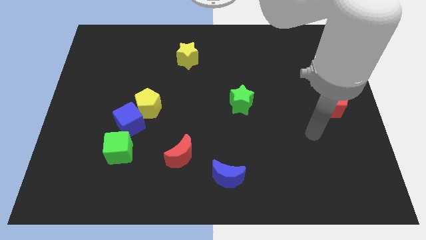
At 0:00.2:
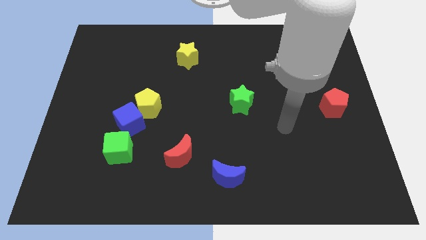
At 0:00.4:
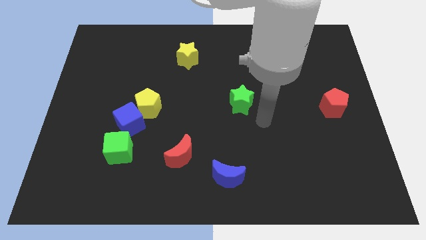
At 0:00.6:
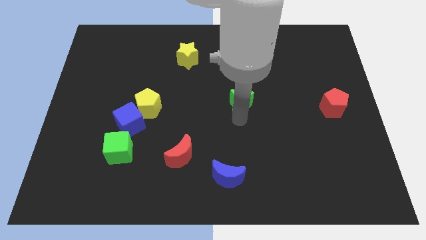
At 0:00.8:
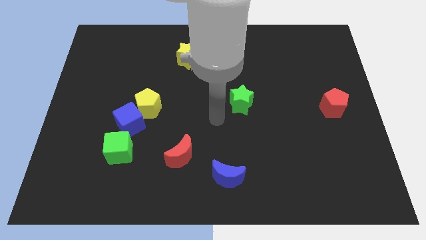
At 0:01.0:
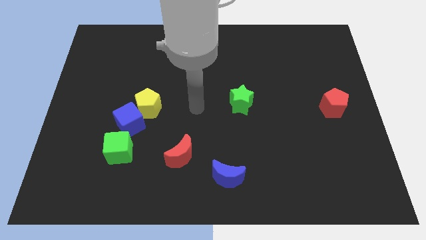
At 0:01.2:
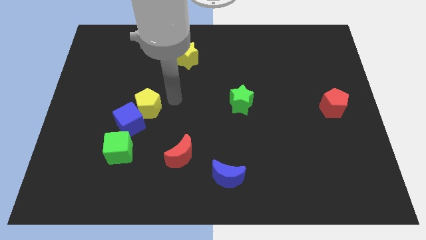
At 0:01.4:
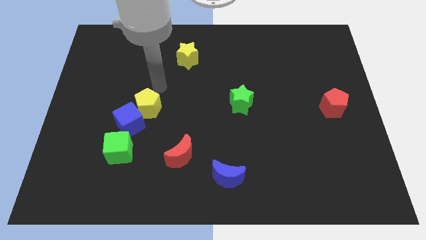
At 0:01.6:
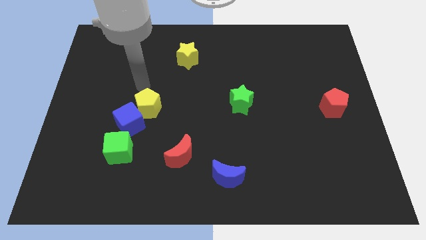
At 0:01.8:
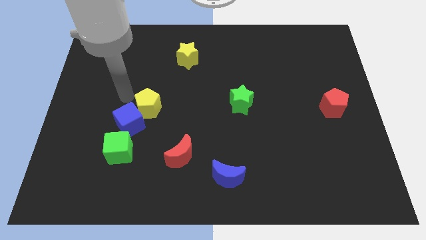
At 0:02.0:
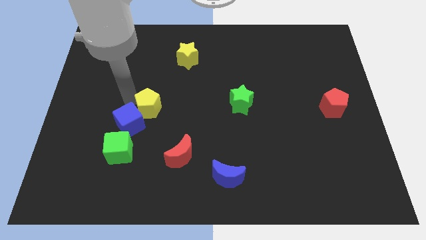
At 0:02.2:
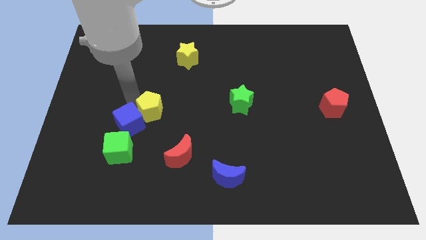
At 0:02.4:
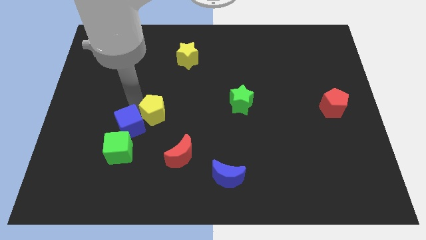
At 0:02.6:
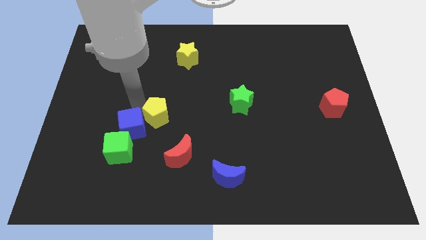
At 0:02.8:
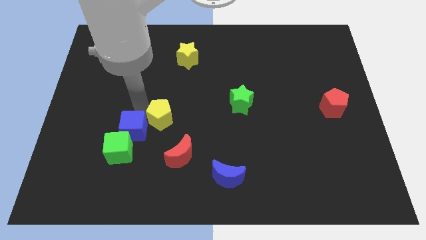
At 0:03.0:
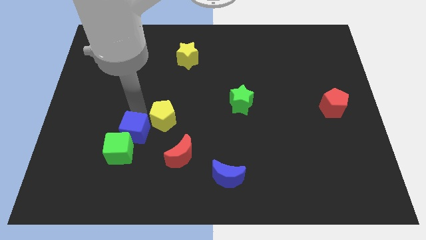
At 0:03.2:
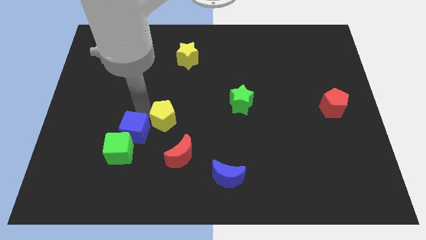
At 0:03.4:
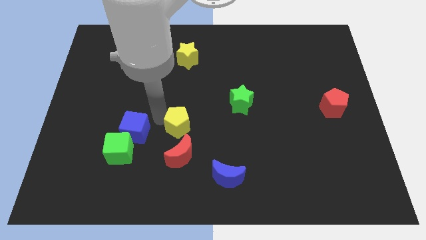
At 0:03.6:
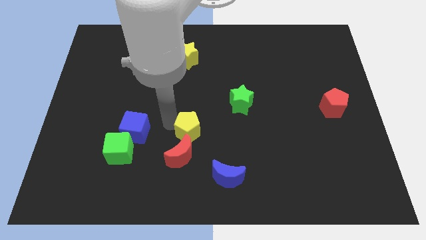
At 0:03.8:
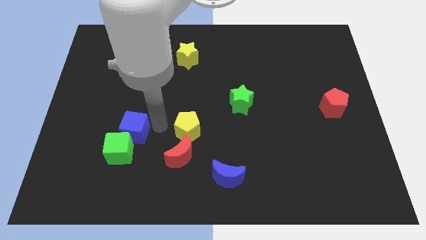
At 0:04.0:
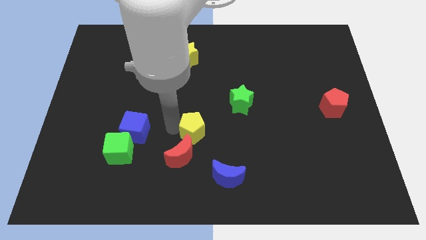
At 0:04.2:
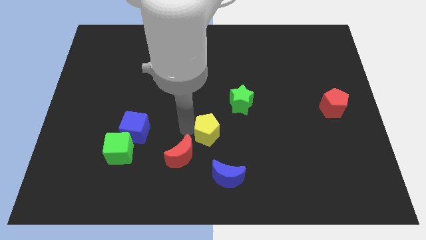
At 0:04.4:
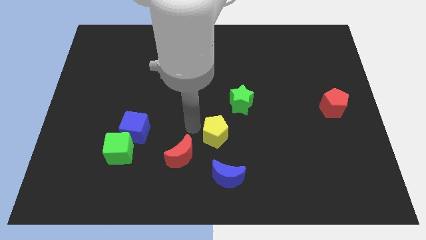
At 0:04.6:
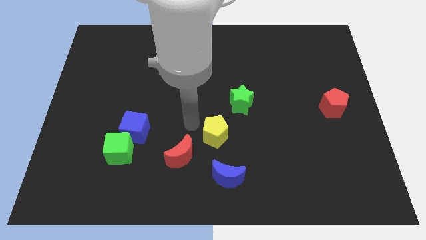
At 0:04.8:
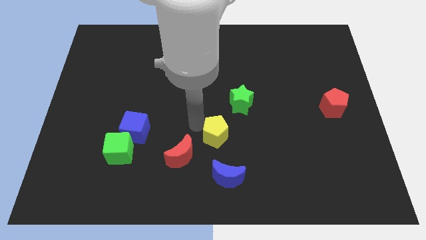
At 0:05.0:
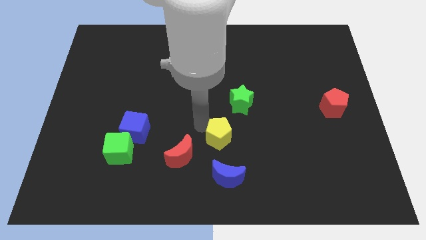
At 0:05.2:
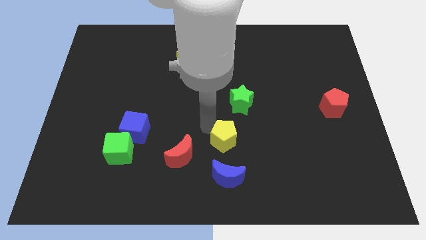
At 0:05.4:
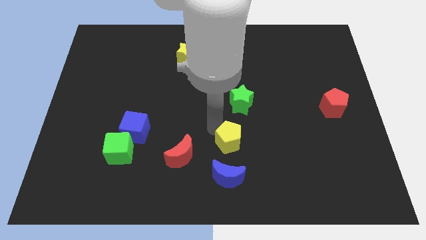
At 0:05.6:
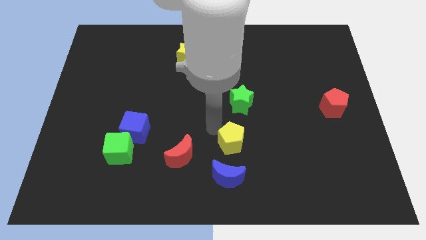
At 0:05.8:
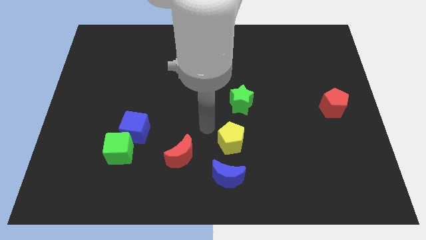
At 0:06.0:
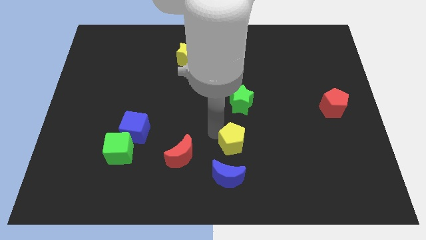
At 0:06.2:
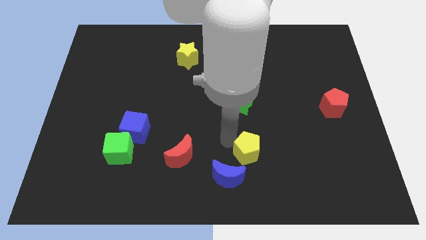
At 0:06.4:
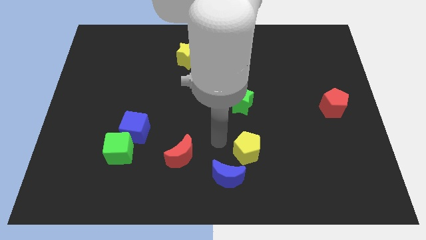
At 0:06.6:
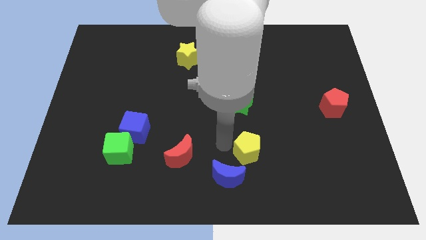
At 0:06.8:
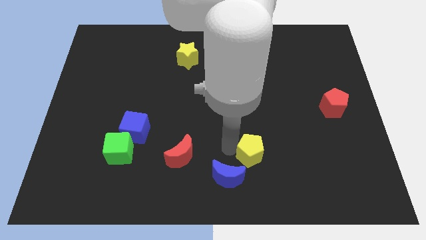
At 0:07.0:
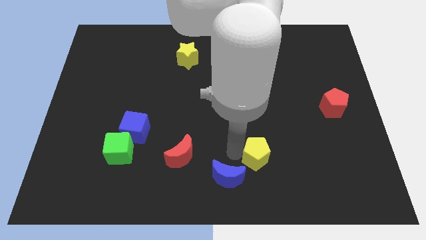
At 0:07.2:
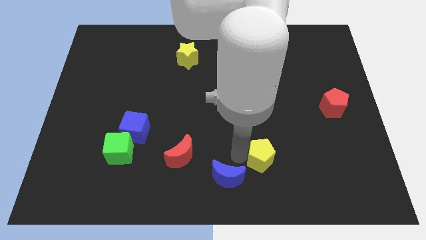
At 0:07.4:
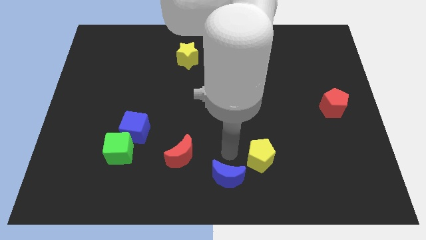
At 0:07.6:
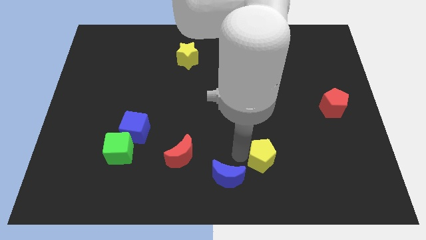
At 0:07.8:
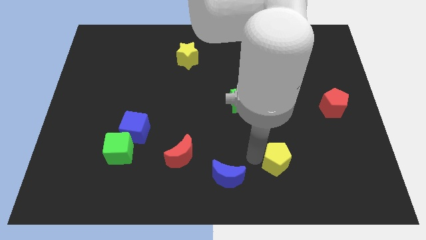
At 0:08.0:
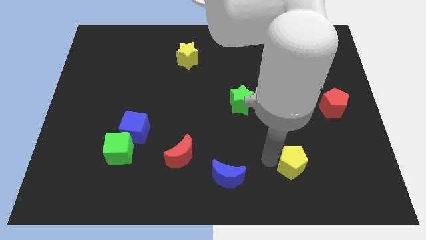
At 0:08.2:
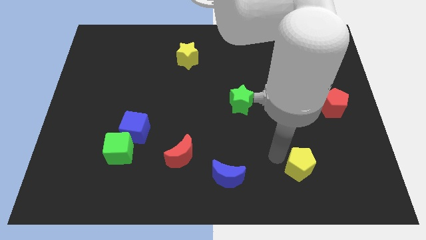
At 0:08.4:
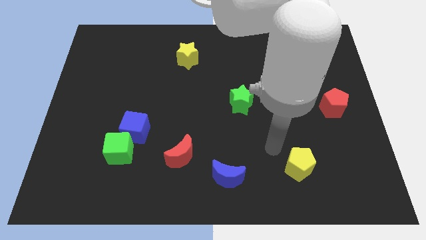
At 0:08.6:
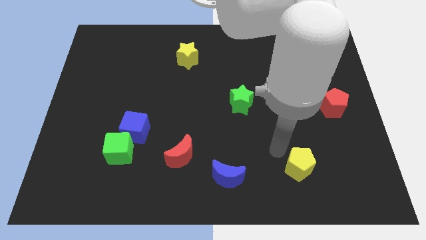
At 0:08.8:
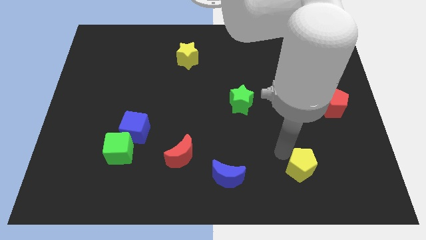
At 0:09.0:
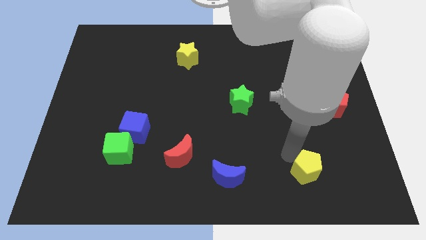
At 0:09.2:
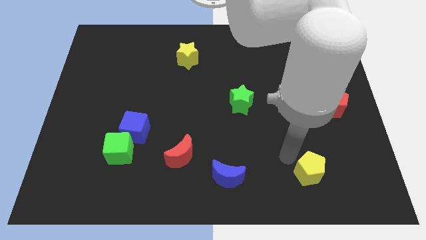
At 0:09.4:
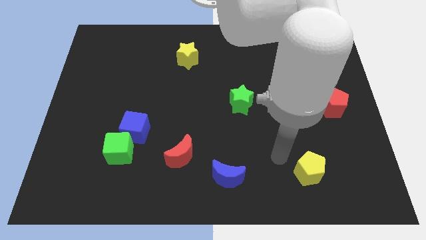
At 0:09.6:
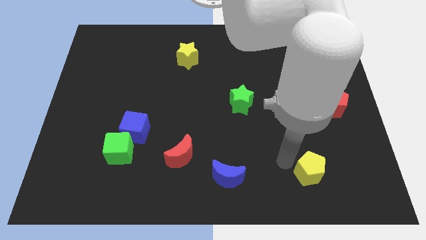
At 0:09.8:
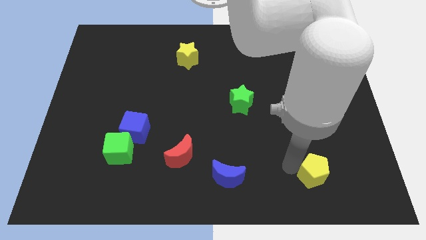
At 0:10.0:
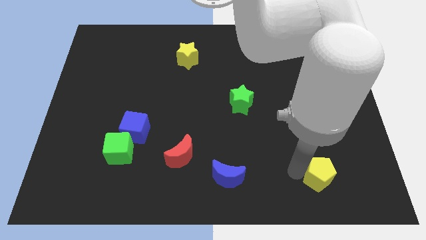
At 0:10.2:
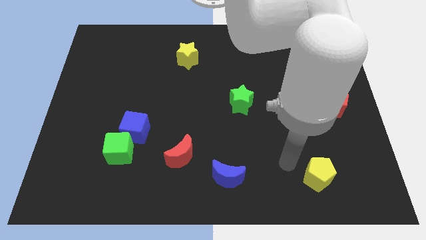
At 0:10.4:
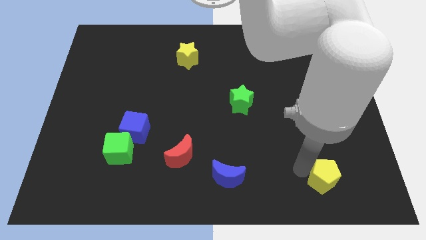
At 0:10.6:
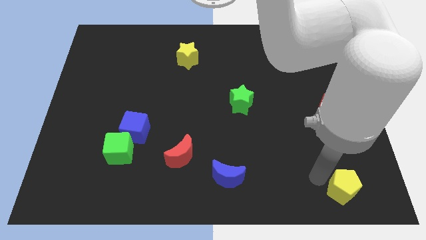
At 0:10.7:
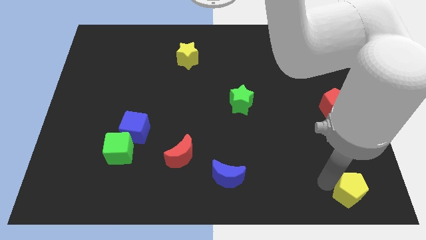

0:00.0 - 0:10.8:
push the yellow pentagon to the bottom right

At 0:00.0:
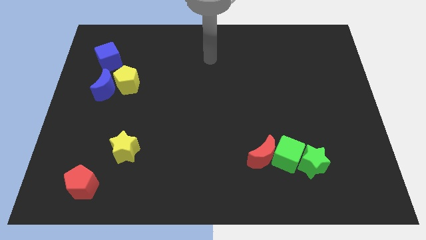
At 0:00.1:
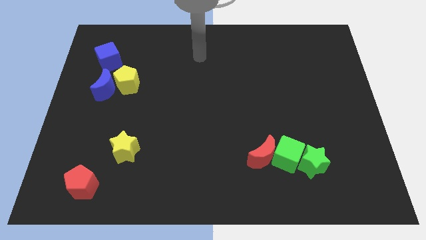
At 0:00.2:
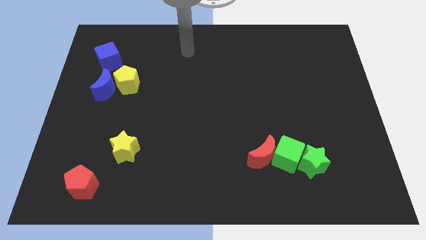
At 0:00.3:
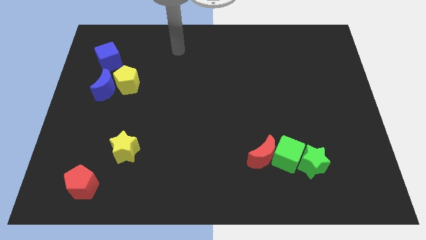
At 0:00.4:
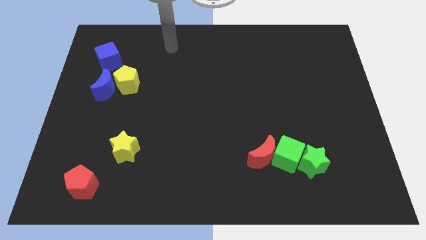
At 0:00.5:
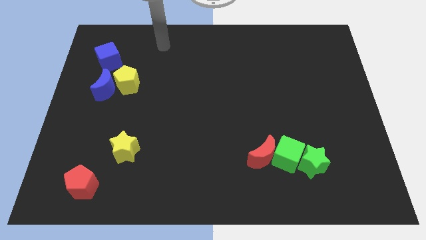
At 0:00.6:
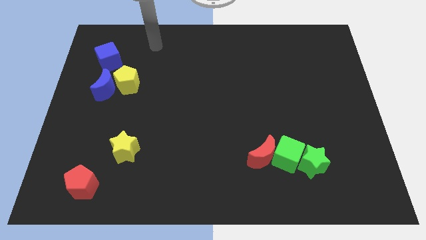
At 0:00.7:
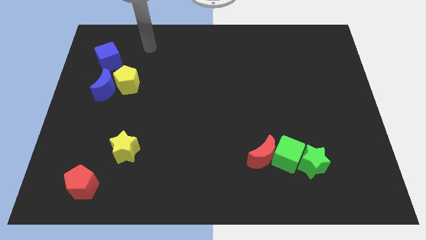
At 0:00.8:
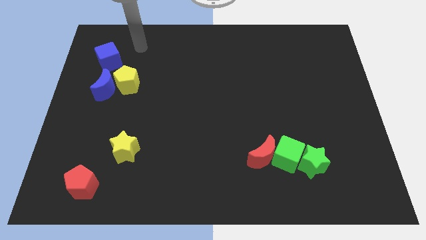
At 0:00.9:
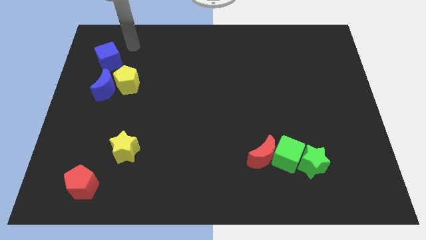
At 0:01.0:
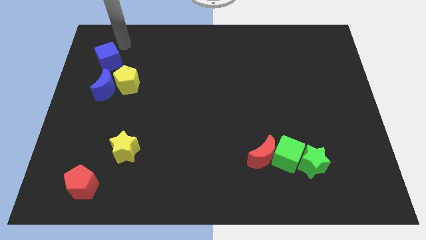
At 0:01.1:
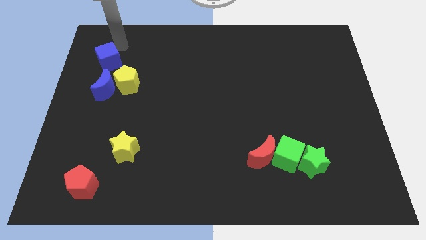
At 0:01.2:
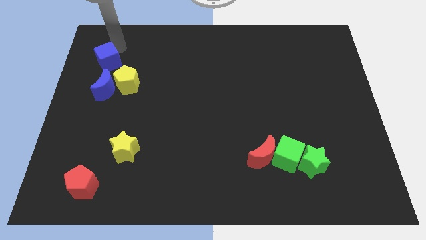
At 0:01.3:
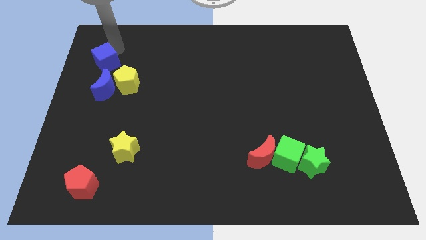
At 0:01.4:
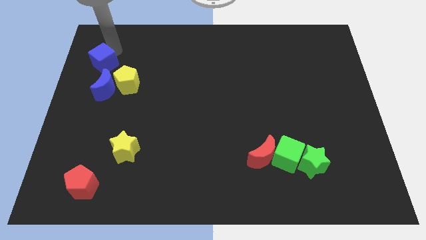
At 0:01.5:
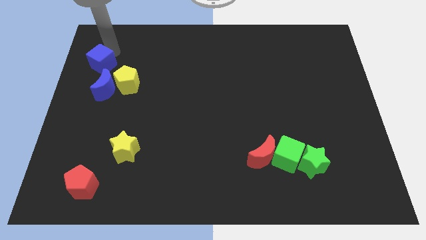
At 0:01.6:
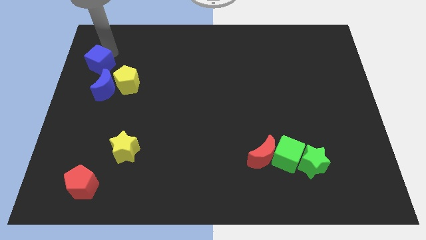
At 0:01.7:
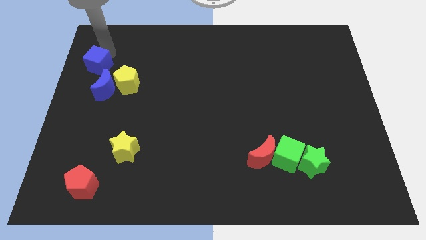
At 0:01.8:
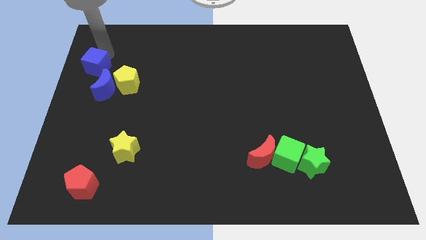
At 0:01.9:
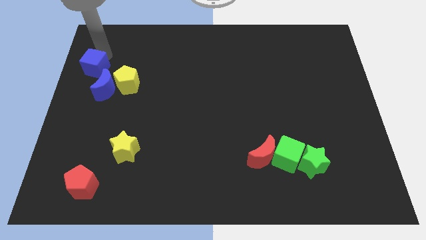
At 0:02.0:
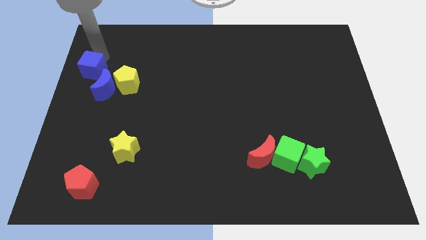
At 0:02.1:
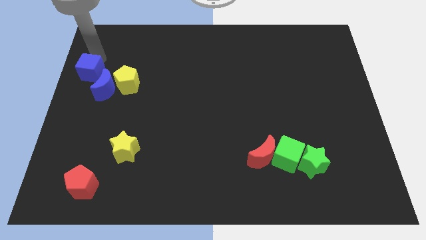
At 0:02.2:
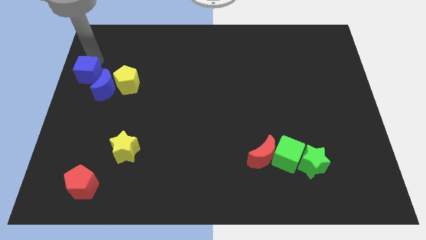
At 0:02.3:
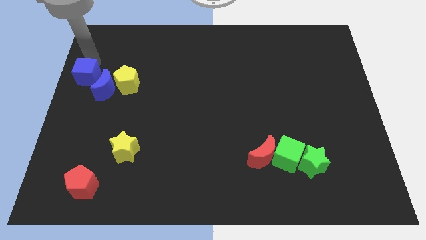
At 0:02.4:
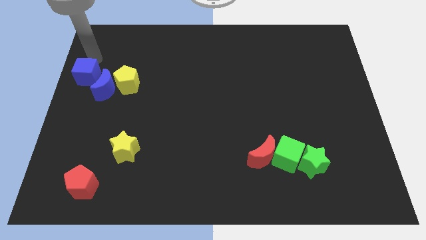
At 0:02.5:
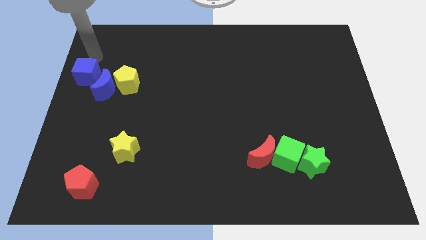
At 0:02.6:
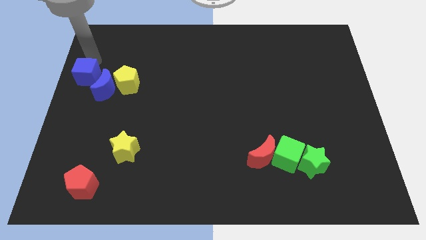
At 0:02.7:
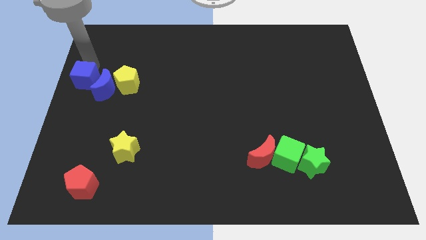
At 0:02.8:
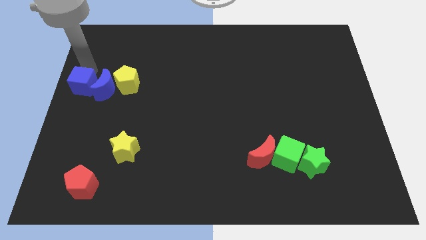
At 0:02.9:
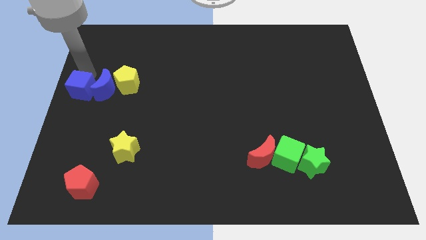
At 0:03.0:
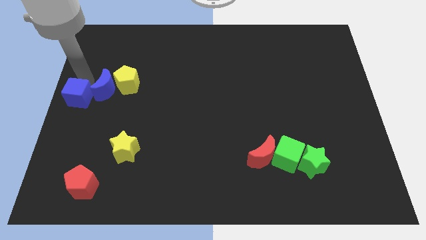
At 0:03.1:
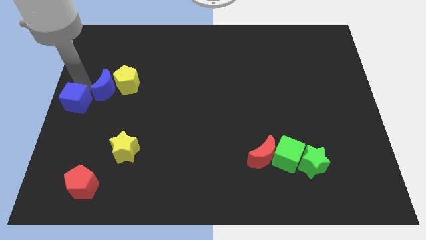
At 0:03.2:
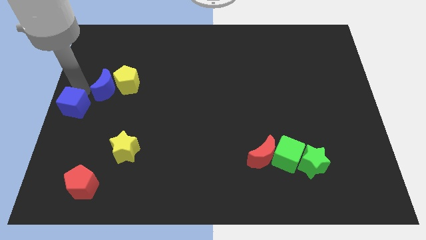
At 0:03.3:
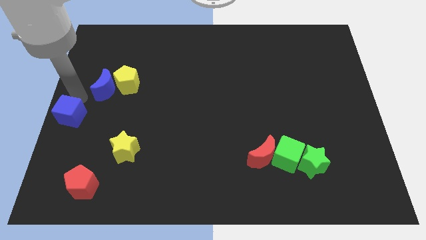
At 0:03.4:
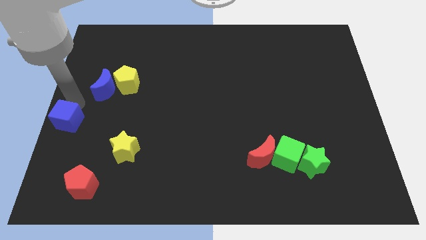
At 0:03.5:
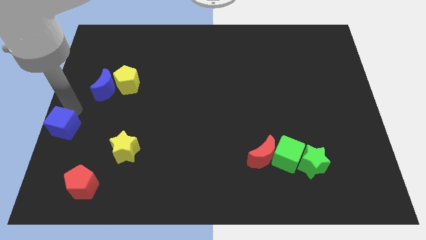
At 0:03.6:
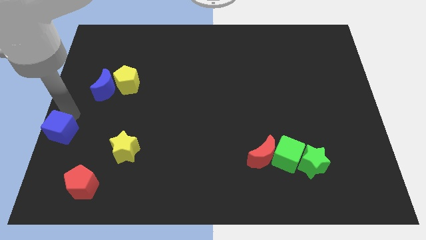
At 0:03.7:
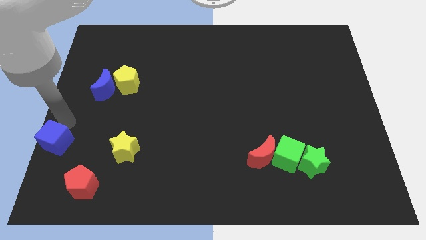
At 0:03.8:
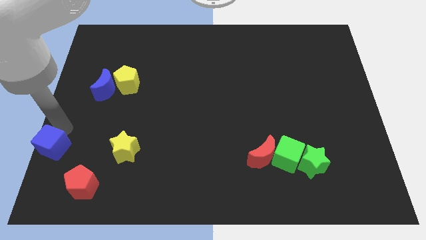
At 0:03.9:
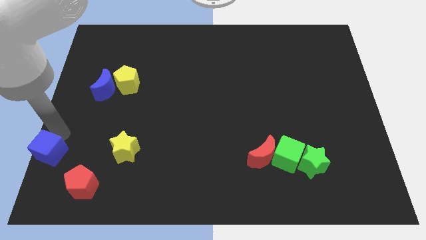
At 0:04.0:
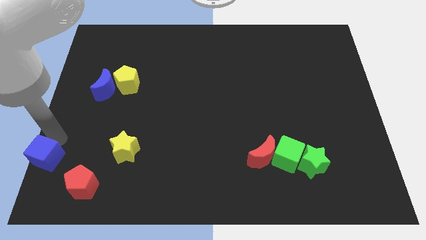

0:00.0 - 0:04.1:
slide the blue cube to the bottom left
